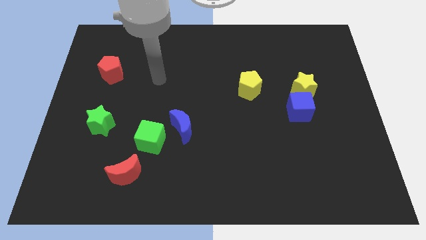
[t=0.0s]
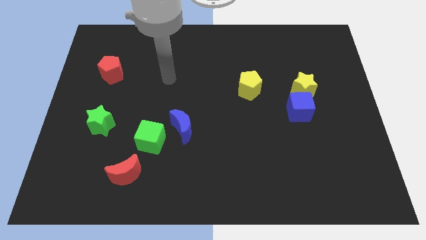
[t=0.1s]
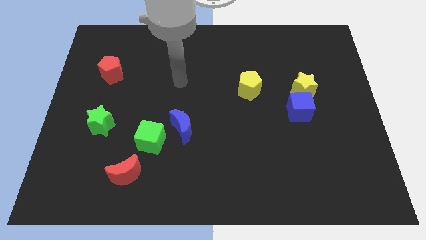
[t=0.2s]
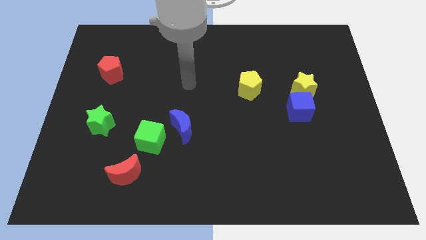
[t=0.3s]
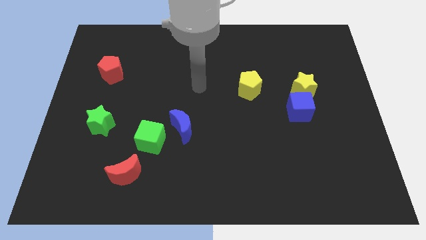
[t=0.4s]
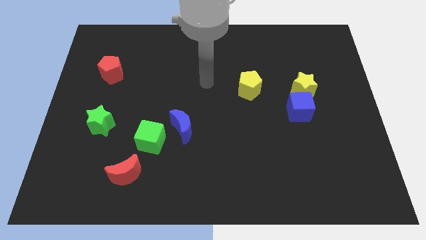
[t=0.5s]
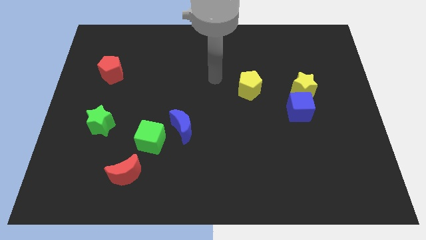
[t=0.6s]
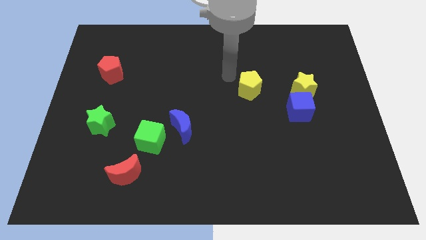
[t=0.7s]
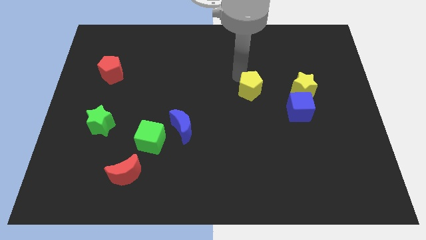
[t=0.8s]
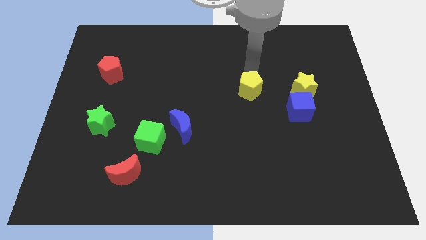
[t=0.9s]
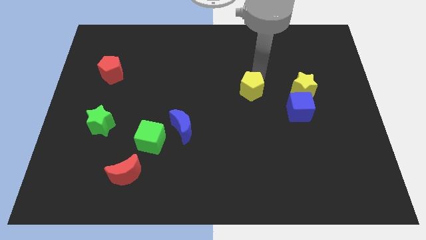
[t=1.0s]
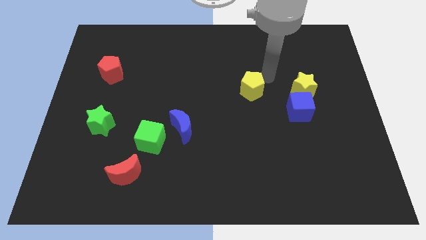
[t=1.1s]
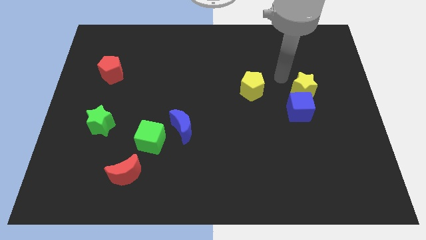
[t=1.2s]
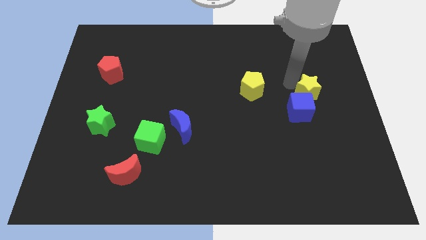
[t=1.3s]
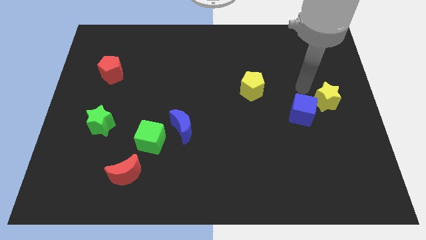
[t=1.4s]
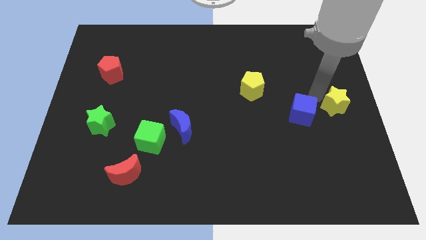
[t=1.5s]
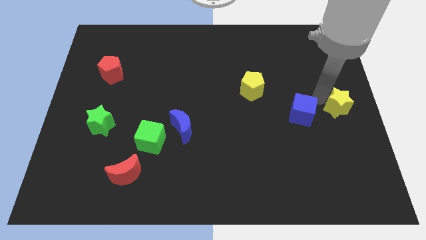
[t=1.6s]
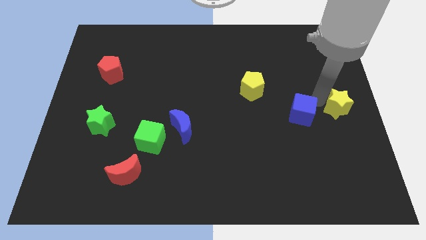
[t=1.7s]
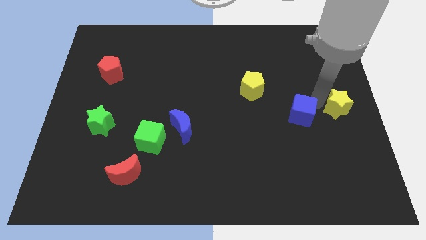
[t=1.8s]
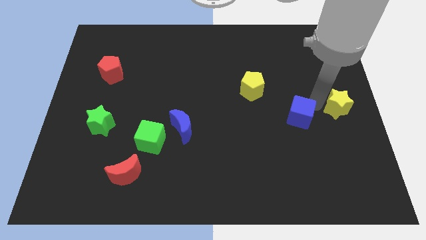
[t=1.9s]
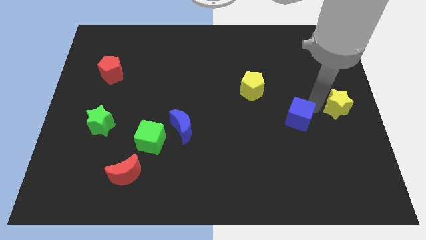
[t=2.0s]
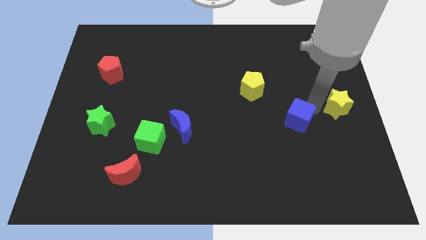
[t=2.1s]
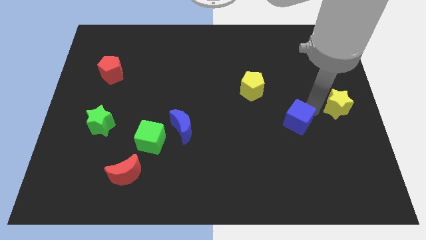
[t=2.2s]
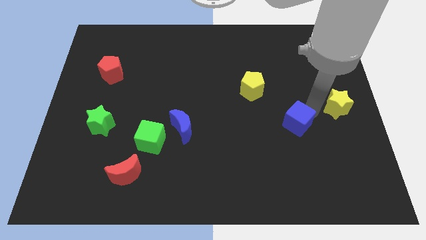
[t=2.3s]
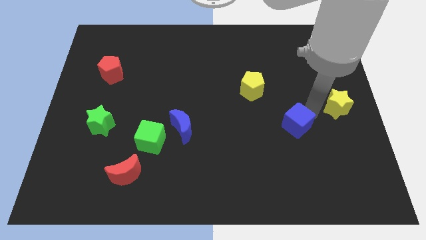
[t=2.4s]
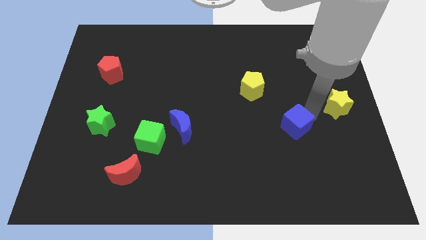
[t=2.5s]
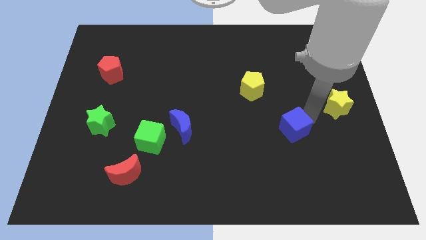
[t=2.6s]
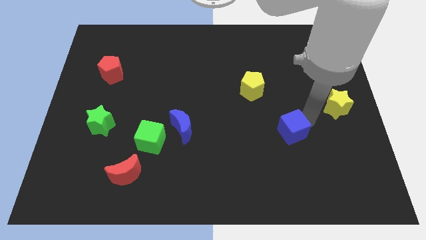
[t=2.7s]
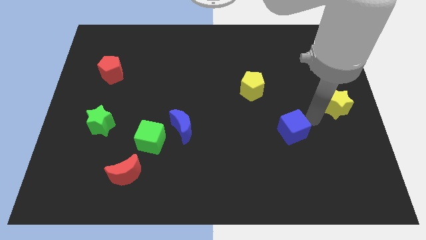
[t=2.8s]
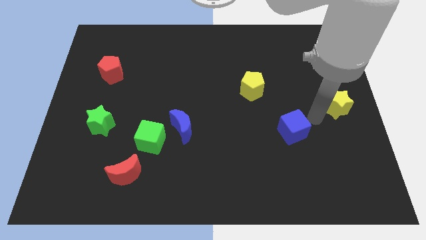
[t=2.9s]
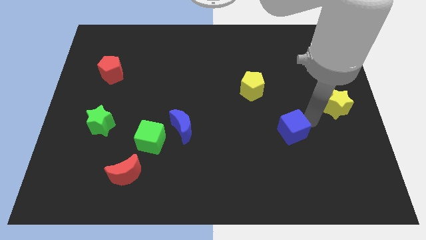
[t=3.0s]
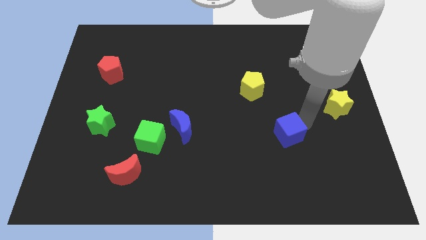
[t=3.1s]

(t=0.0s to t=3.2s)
push the blue cube a little down and then left

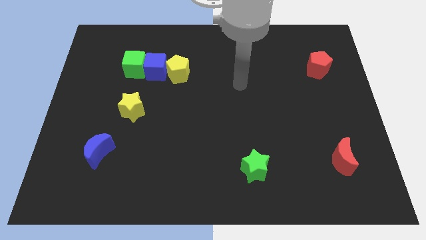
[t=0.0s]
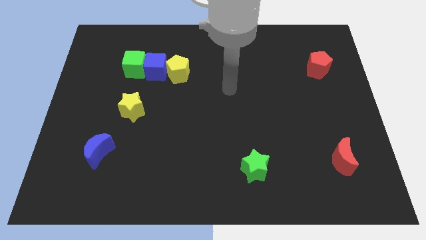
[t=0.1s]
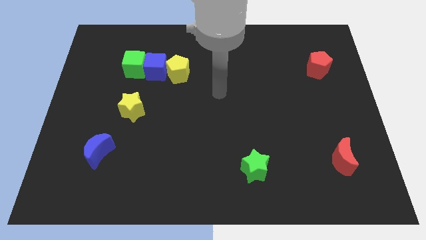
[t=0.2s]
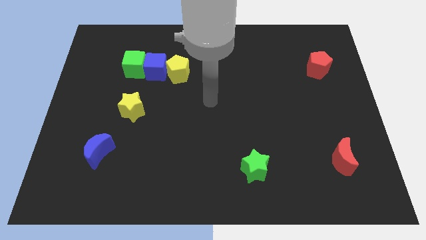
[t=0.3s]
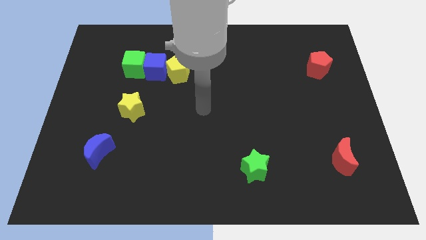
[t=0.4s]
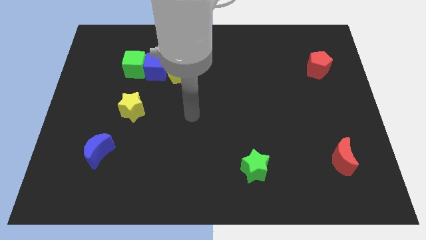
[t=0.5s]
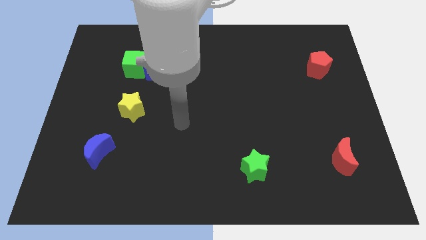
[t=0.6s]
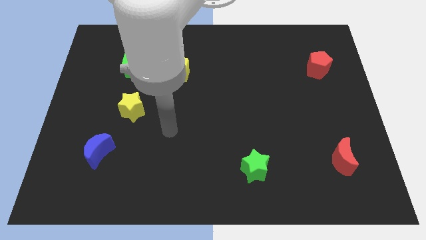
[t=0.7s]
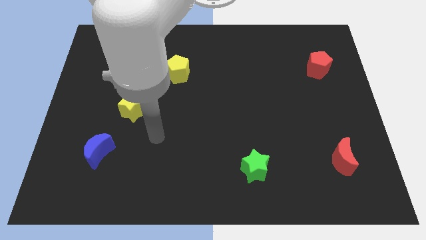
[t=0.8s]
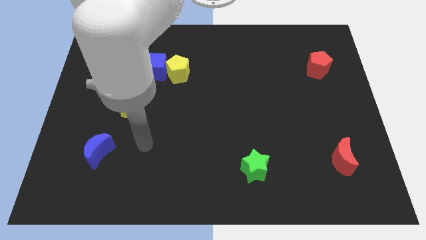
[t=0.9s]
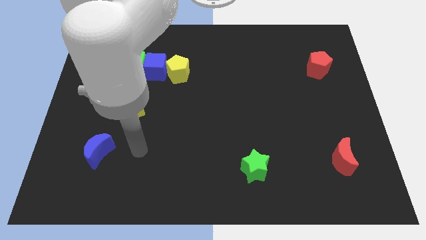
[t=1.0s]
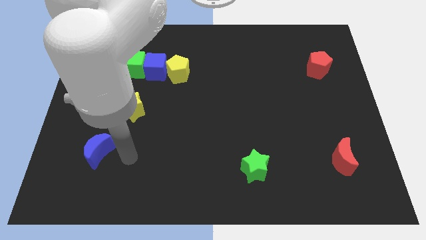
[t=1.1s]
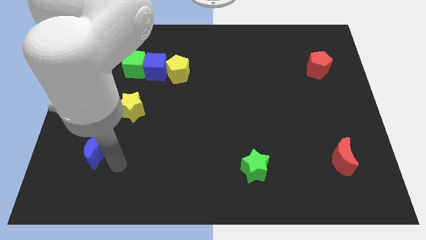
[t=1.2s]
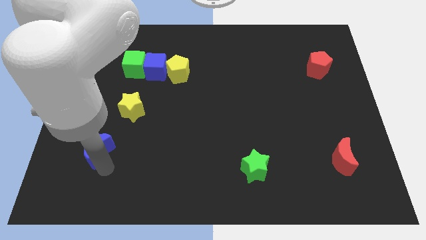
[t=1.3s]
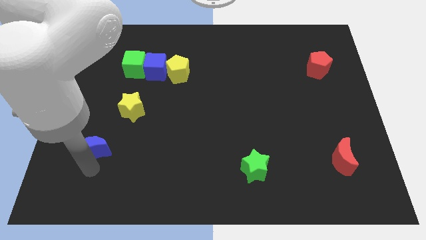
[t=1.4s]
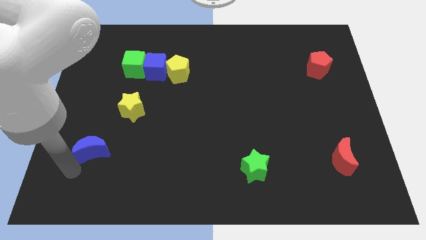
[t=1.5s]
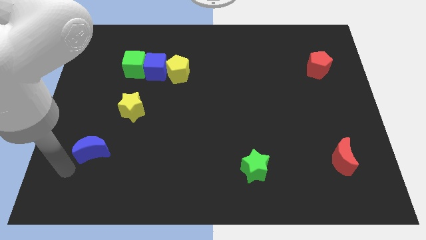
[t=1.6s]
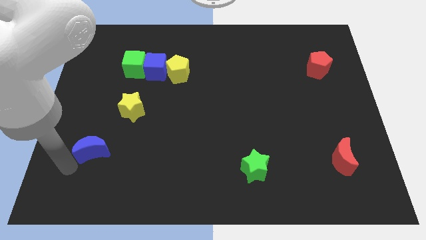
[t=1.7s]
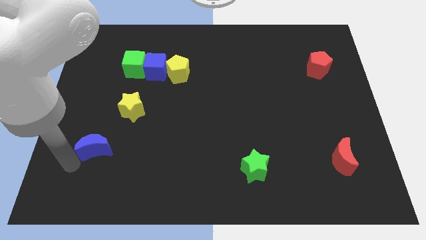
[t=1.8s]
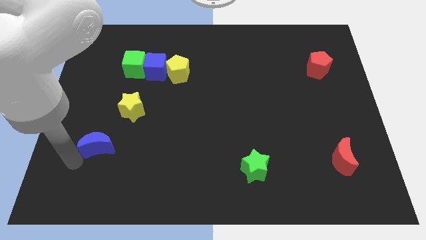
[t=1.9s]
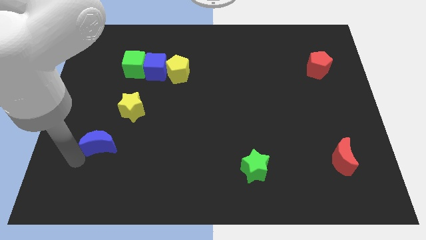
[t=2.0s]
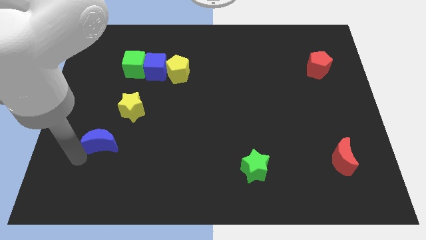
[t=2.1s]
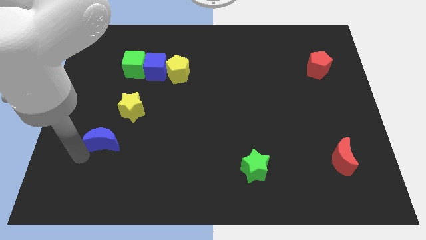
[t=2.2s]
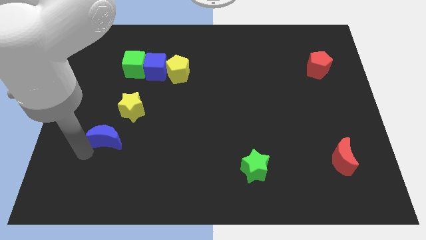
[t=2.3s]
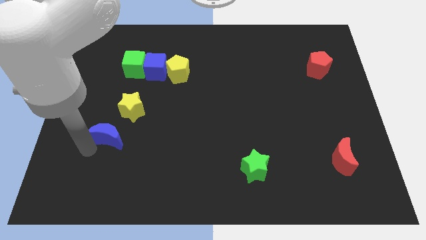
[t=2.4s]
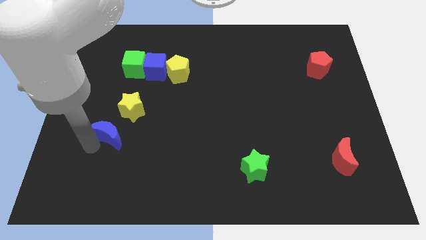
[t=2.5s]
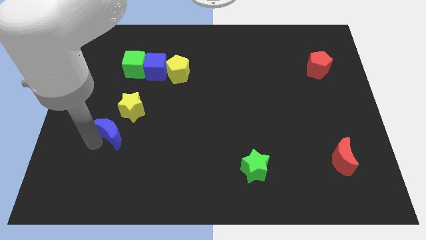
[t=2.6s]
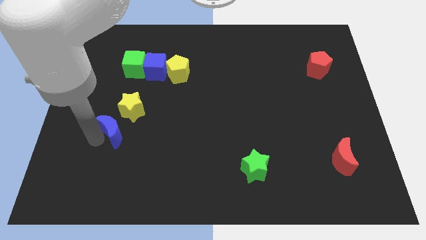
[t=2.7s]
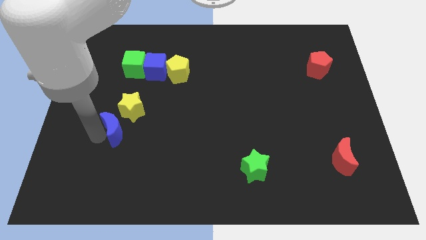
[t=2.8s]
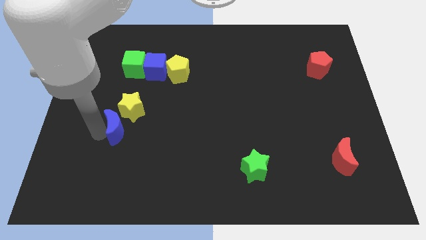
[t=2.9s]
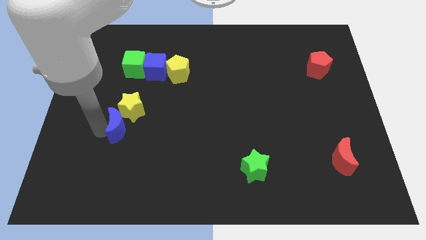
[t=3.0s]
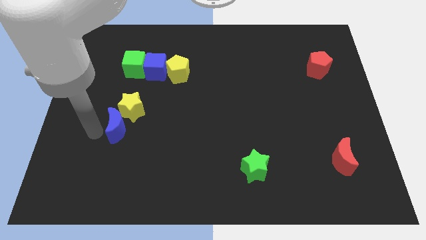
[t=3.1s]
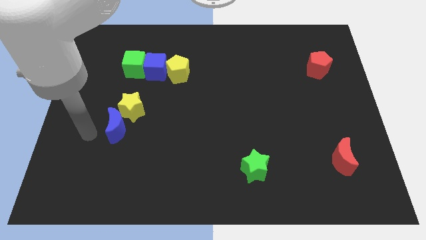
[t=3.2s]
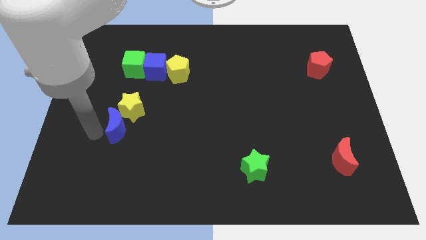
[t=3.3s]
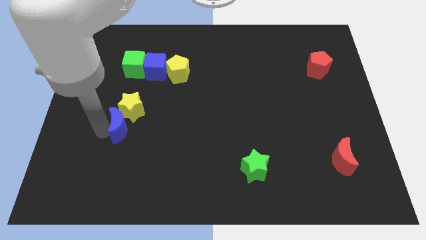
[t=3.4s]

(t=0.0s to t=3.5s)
push the blue moon slightly upwards and right

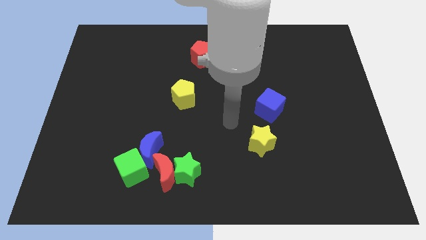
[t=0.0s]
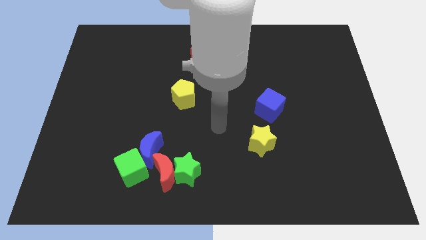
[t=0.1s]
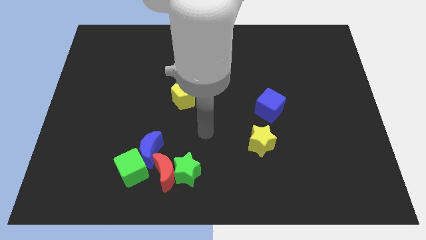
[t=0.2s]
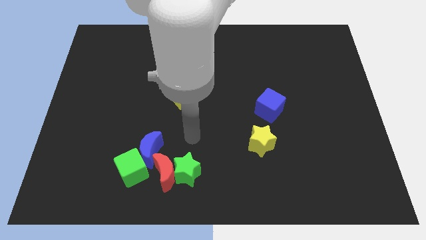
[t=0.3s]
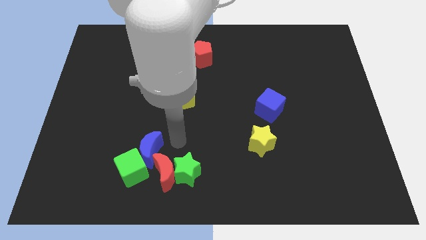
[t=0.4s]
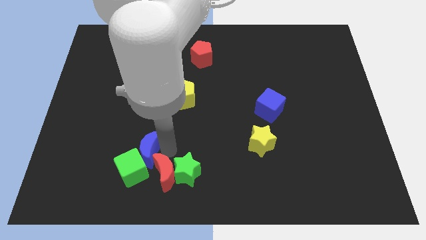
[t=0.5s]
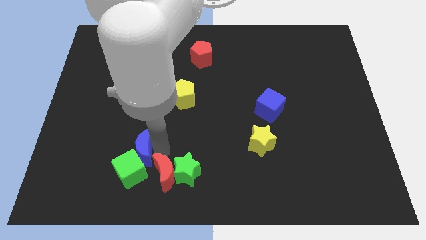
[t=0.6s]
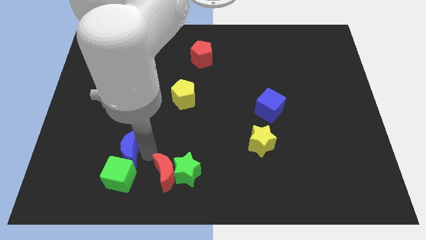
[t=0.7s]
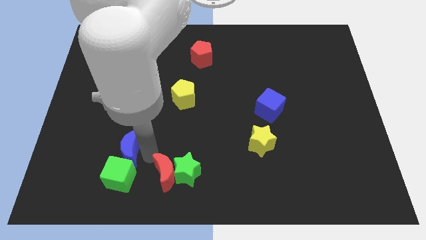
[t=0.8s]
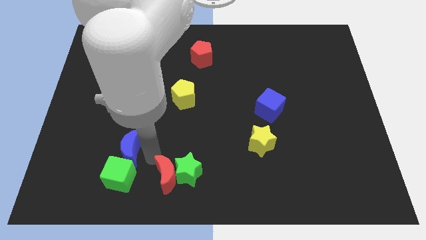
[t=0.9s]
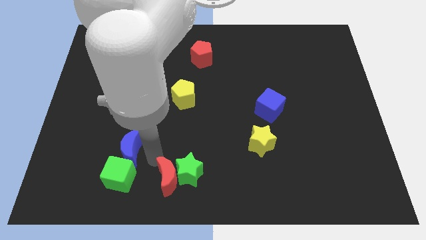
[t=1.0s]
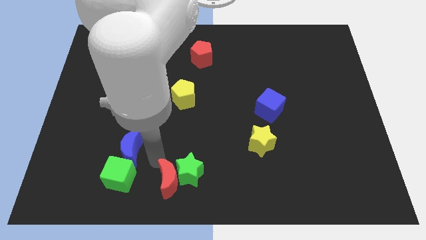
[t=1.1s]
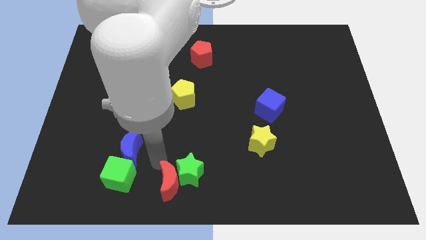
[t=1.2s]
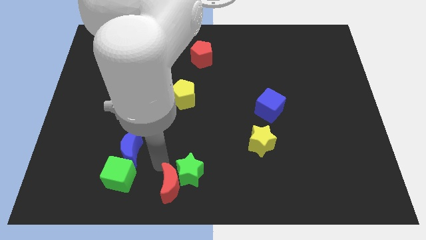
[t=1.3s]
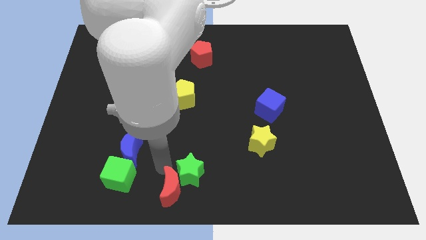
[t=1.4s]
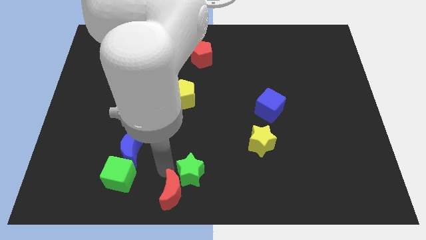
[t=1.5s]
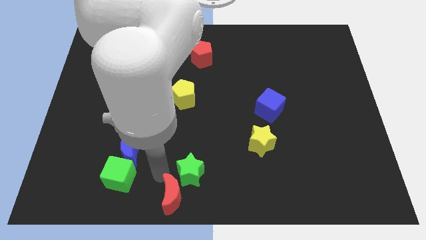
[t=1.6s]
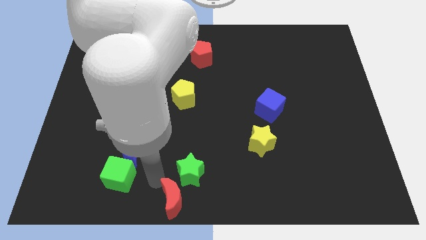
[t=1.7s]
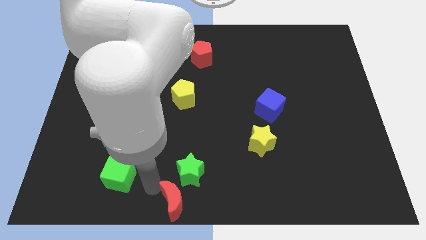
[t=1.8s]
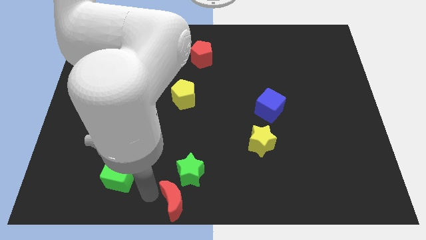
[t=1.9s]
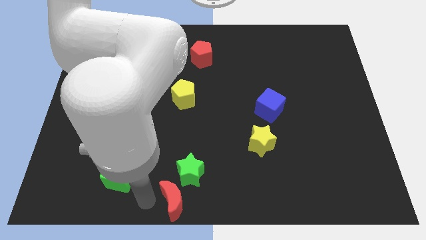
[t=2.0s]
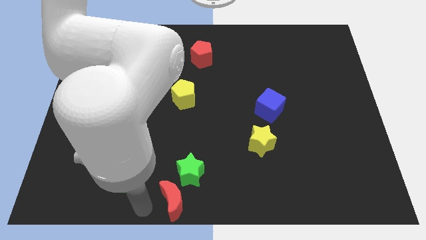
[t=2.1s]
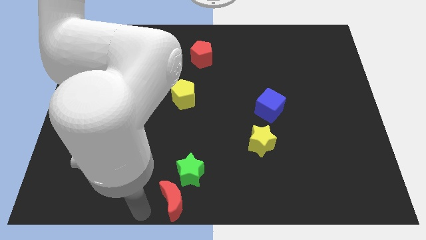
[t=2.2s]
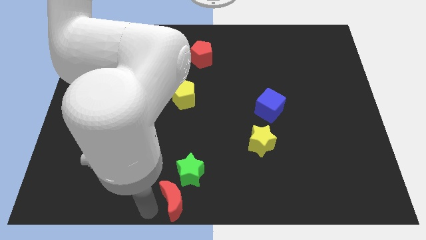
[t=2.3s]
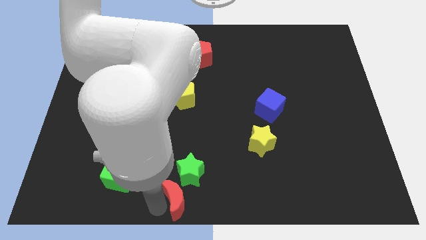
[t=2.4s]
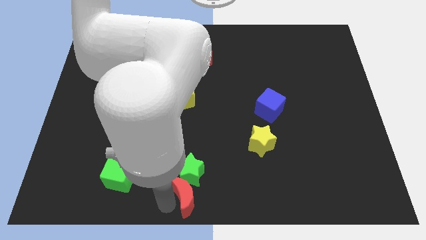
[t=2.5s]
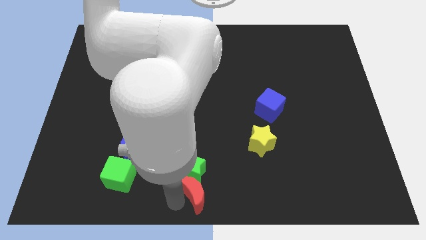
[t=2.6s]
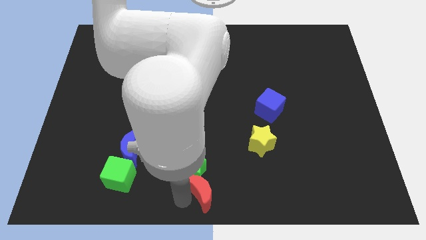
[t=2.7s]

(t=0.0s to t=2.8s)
slide the red moon right slightly
